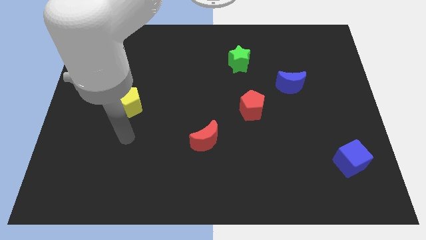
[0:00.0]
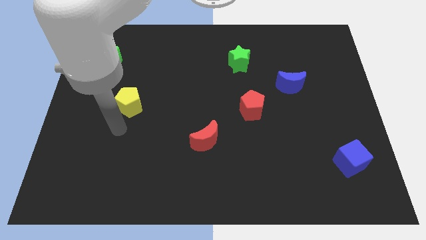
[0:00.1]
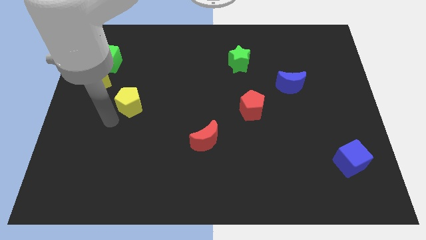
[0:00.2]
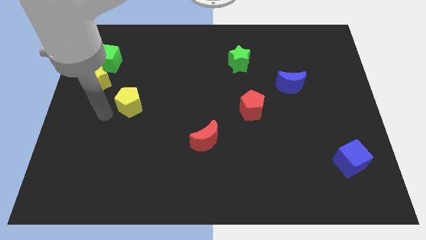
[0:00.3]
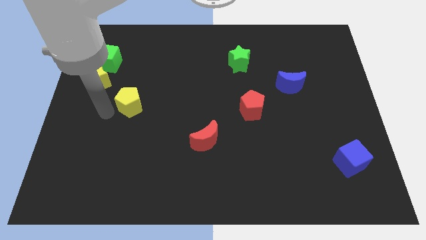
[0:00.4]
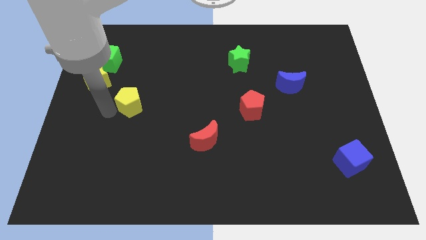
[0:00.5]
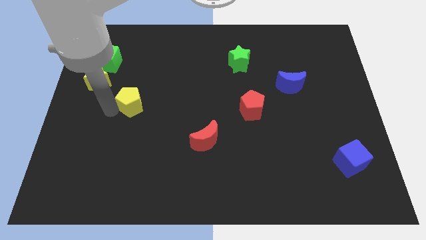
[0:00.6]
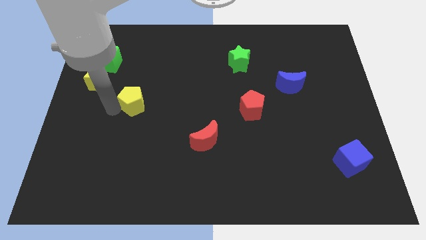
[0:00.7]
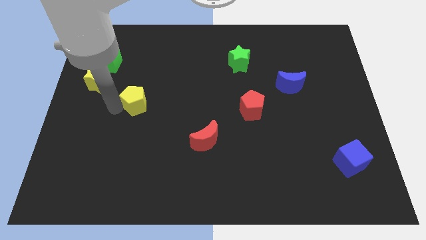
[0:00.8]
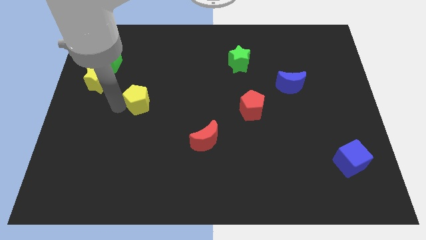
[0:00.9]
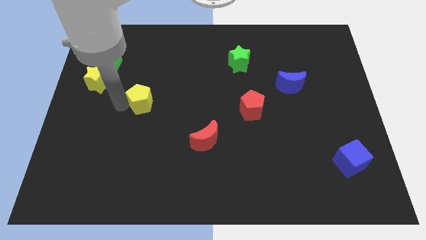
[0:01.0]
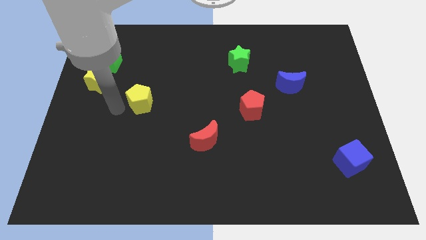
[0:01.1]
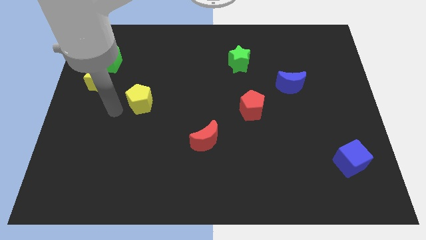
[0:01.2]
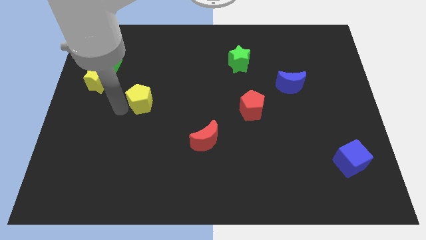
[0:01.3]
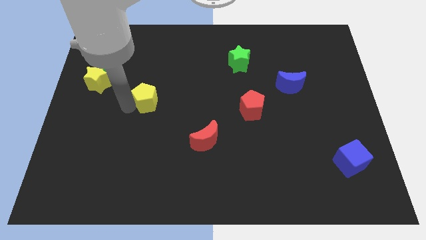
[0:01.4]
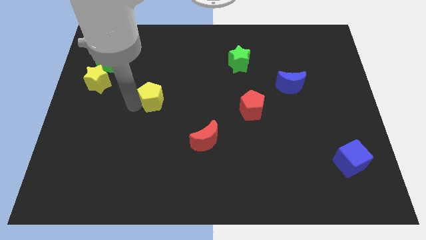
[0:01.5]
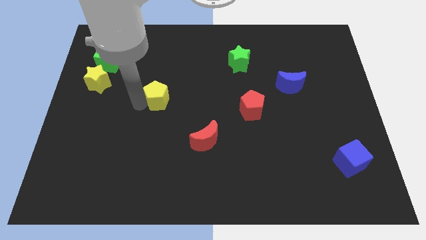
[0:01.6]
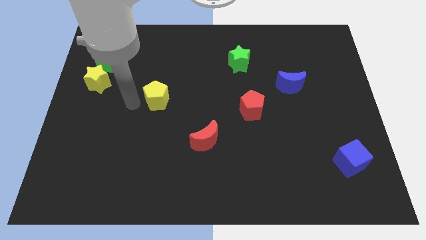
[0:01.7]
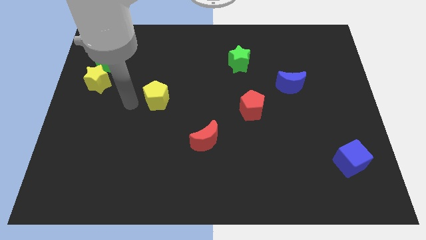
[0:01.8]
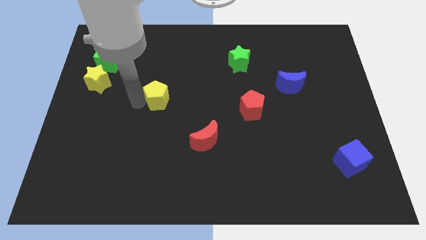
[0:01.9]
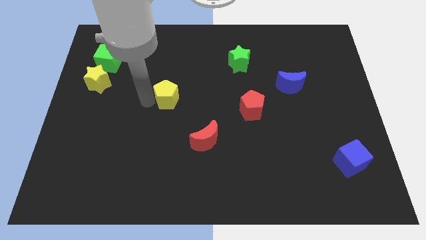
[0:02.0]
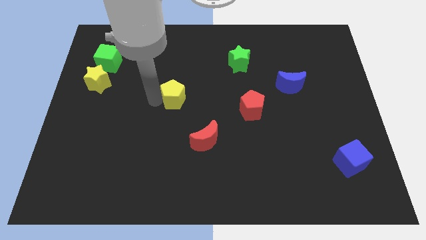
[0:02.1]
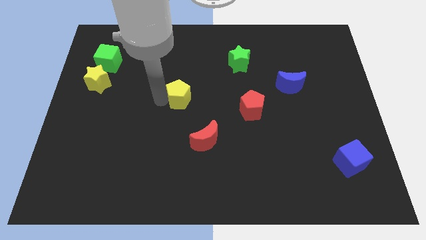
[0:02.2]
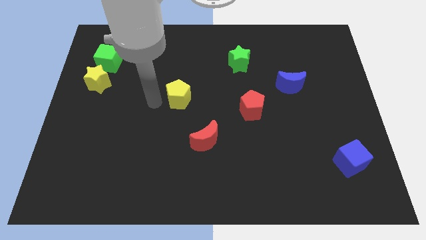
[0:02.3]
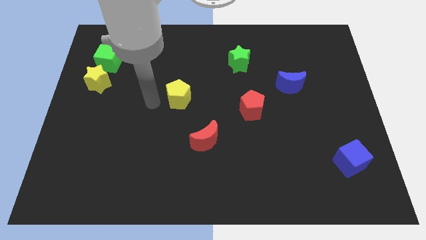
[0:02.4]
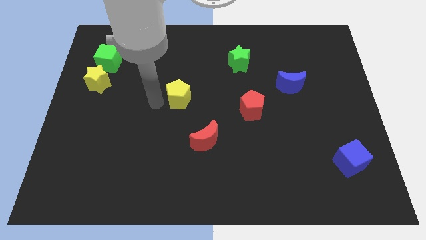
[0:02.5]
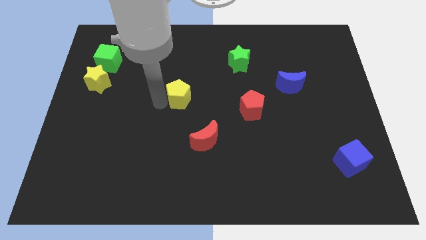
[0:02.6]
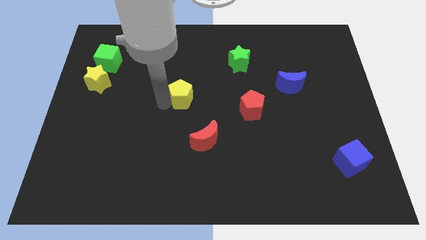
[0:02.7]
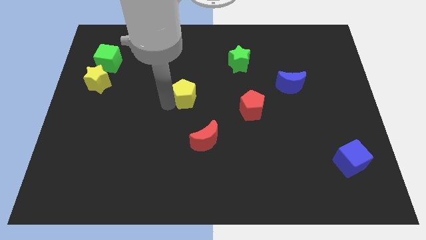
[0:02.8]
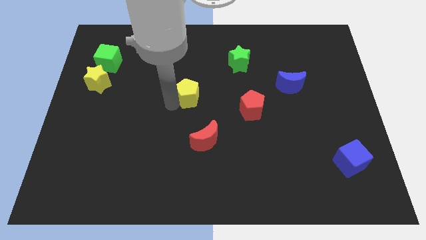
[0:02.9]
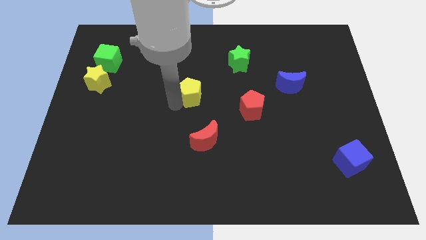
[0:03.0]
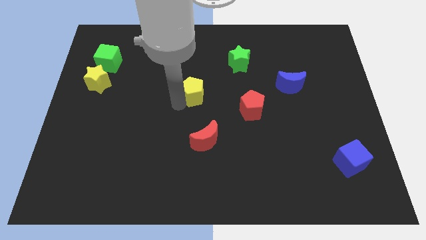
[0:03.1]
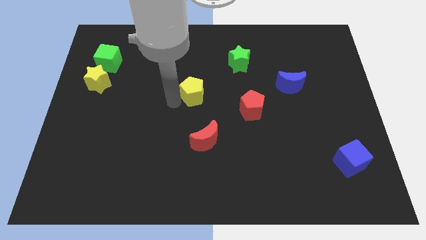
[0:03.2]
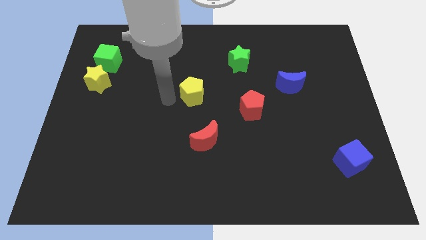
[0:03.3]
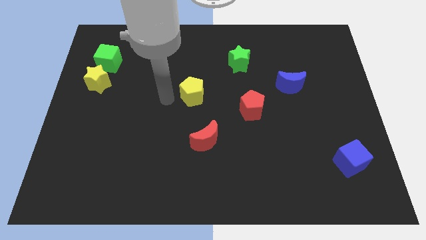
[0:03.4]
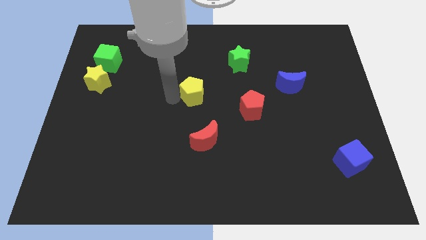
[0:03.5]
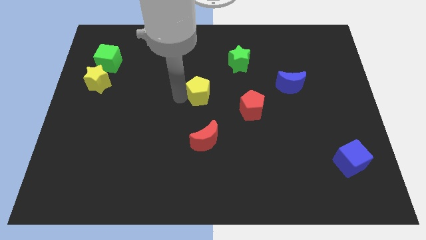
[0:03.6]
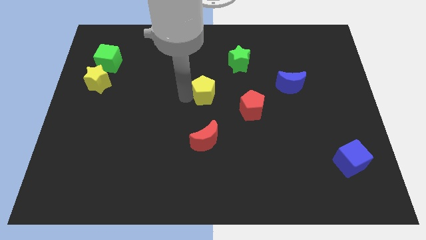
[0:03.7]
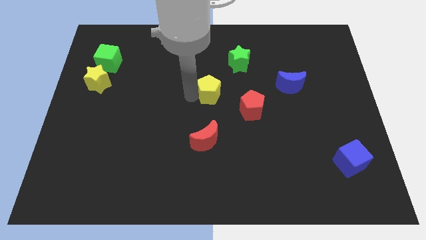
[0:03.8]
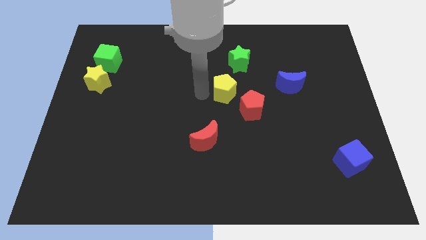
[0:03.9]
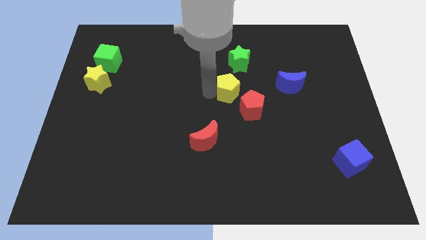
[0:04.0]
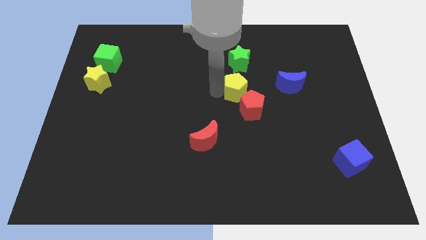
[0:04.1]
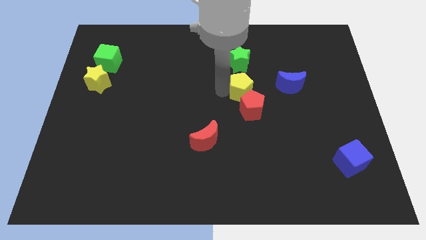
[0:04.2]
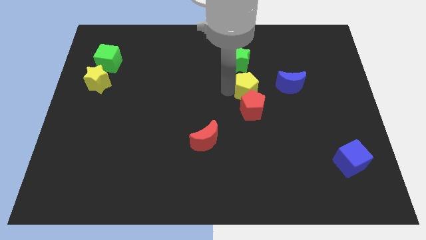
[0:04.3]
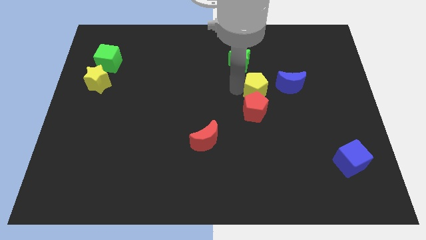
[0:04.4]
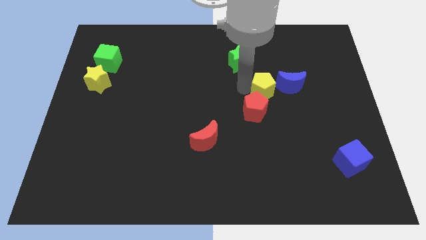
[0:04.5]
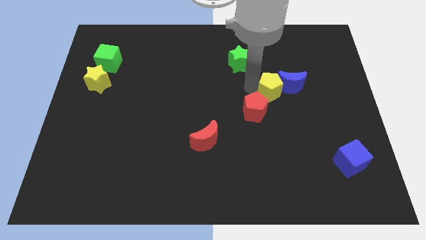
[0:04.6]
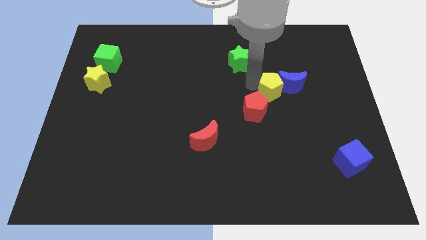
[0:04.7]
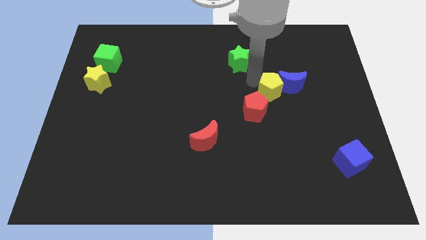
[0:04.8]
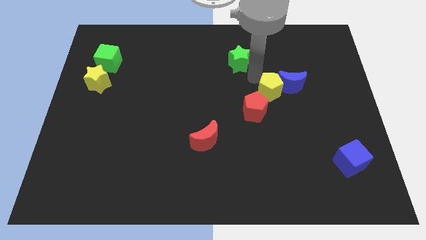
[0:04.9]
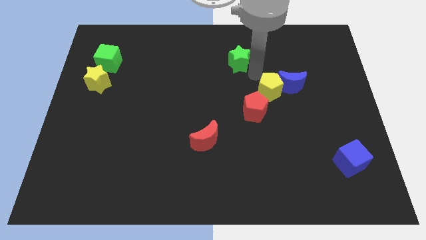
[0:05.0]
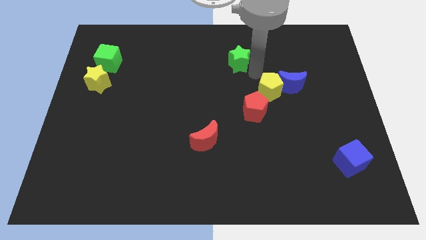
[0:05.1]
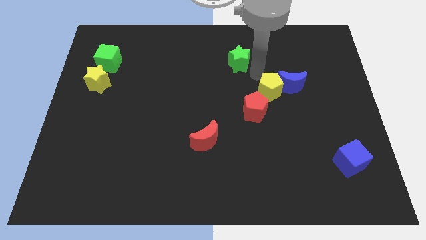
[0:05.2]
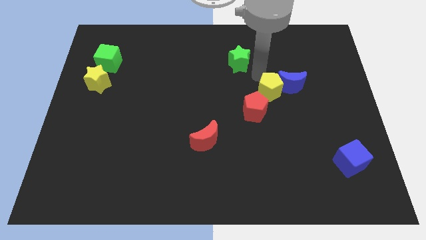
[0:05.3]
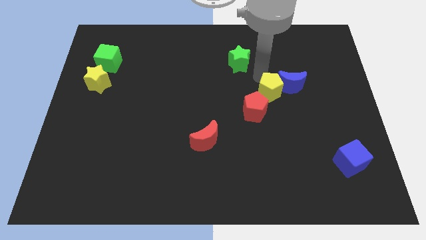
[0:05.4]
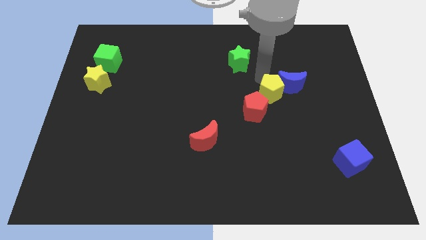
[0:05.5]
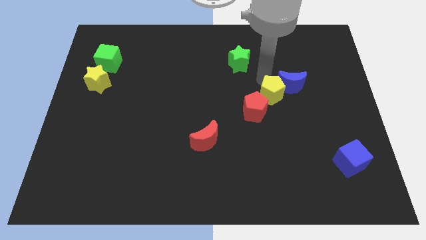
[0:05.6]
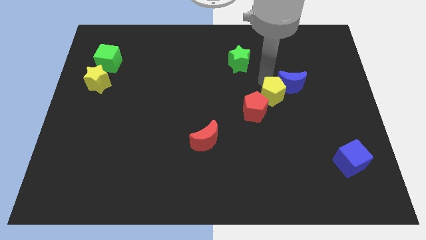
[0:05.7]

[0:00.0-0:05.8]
move the yellow pentagon just right of the red pentagon
